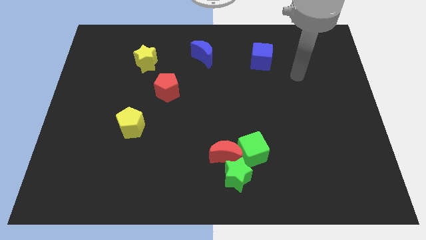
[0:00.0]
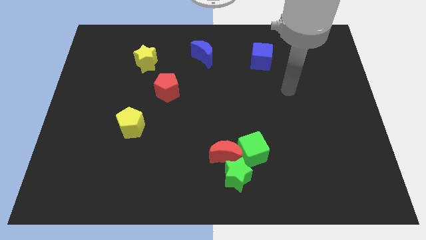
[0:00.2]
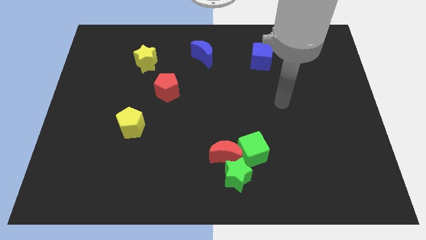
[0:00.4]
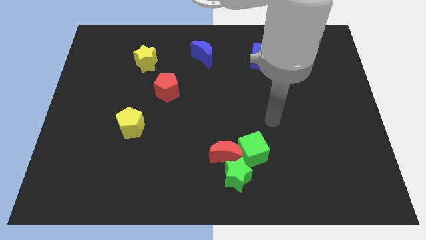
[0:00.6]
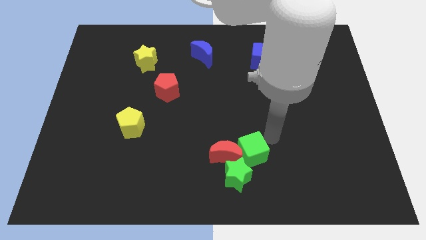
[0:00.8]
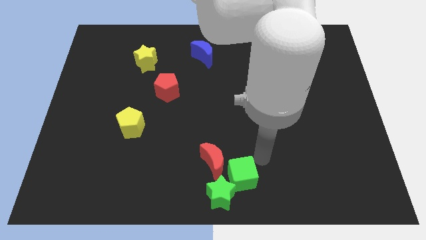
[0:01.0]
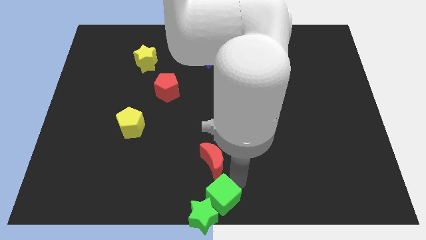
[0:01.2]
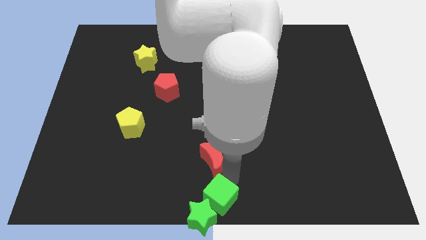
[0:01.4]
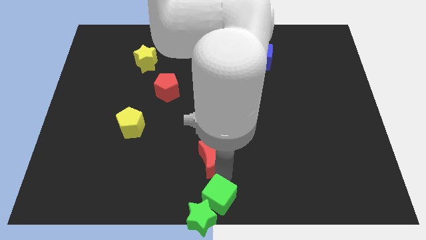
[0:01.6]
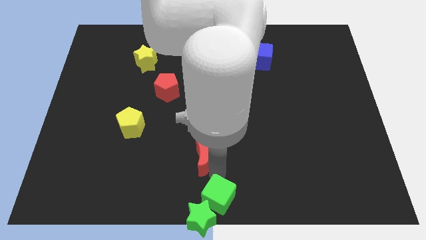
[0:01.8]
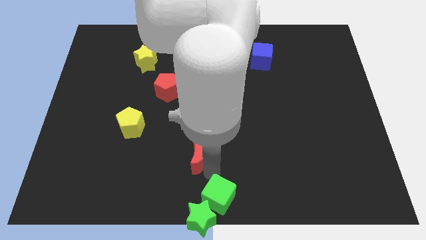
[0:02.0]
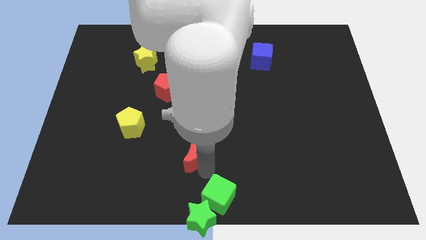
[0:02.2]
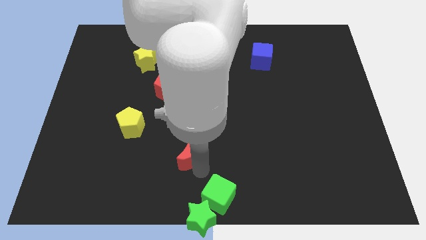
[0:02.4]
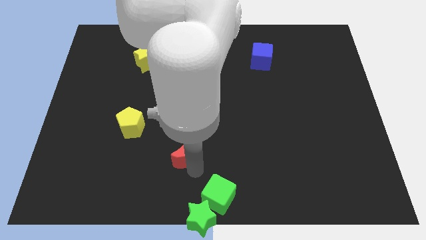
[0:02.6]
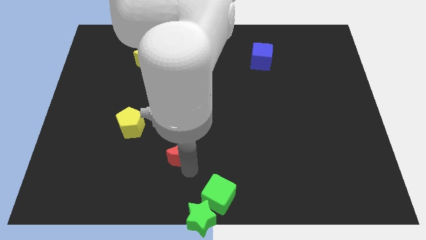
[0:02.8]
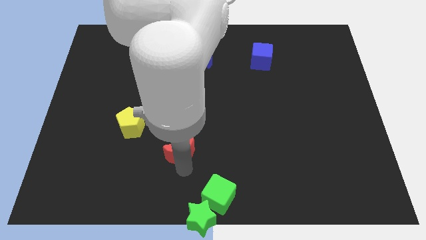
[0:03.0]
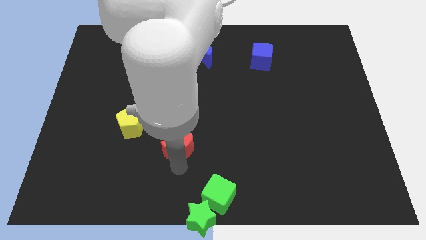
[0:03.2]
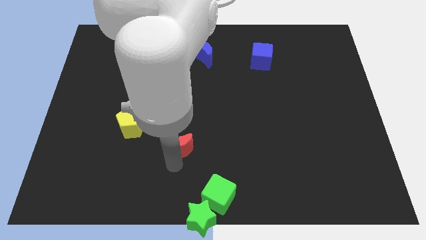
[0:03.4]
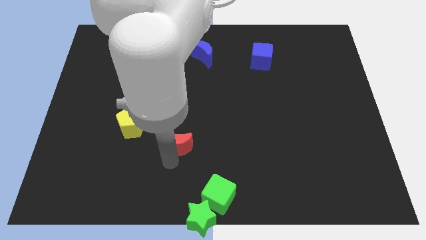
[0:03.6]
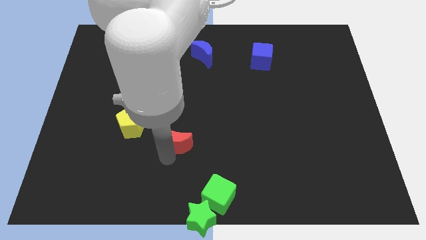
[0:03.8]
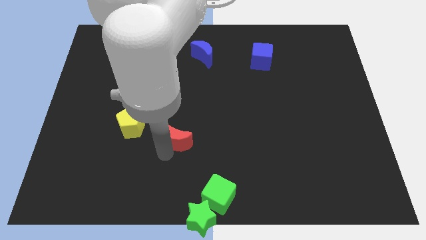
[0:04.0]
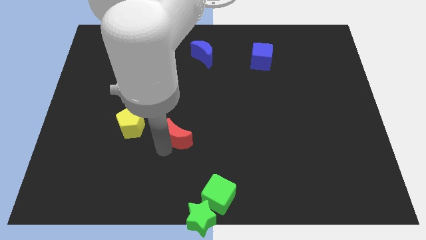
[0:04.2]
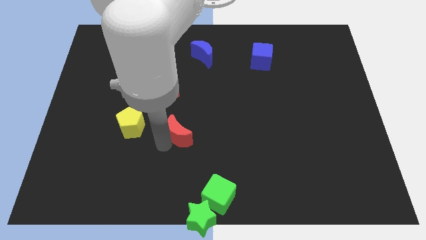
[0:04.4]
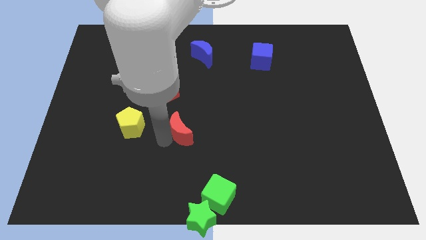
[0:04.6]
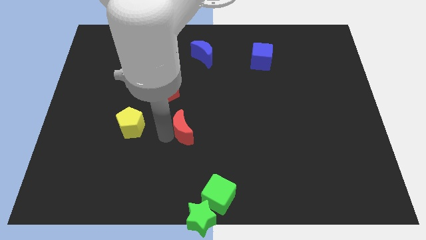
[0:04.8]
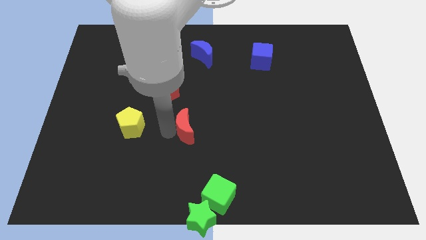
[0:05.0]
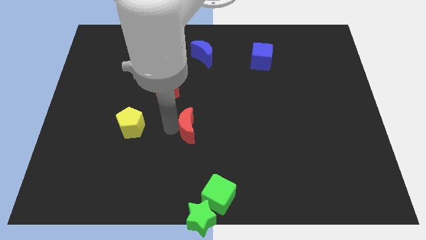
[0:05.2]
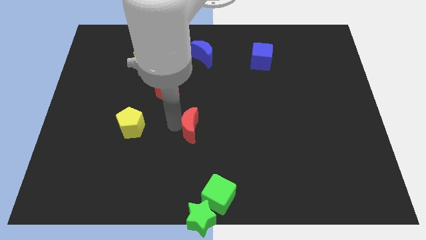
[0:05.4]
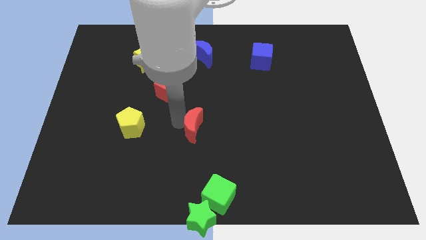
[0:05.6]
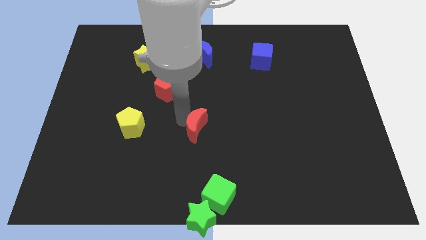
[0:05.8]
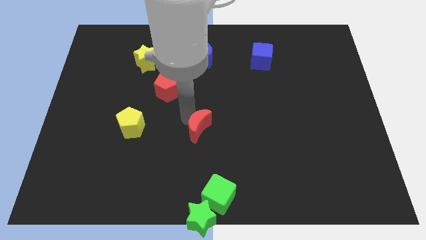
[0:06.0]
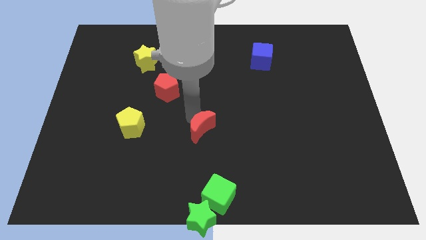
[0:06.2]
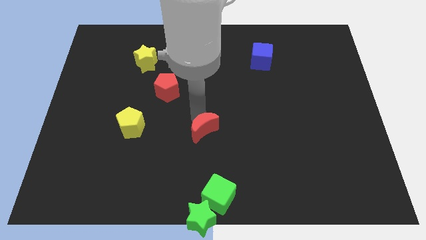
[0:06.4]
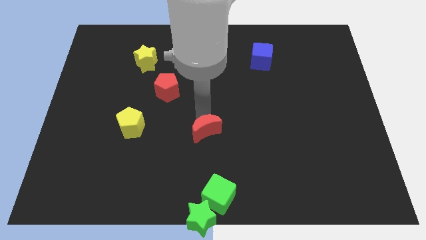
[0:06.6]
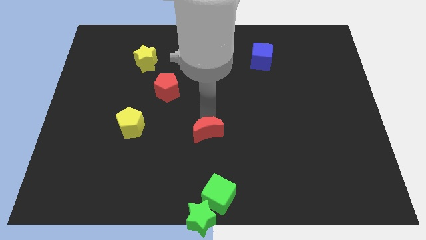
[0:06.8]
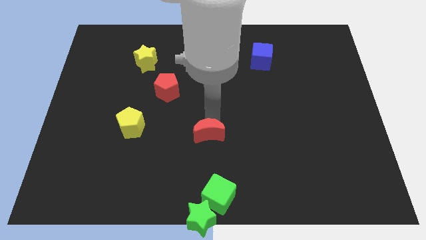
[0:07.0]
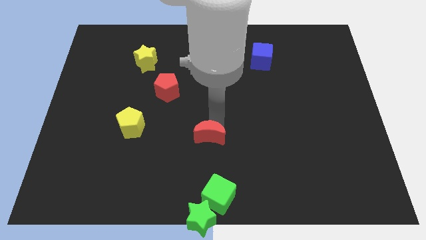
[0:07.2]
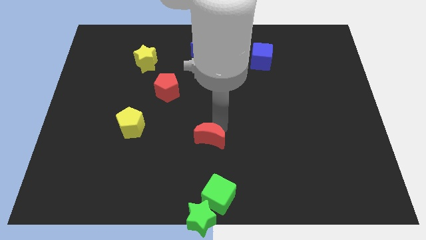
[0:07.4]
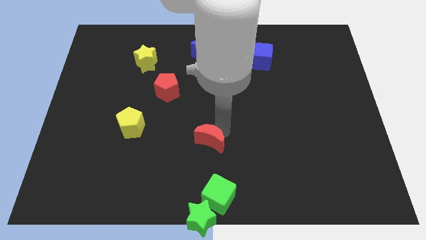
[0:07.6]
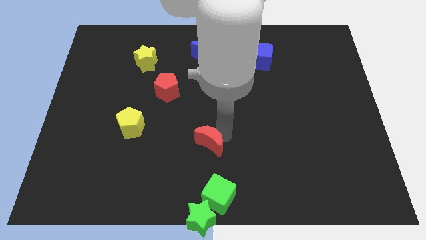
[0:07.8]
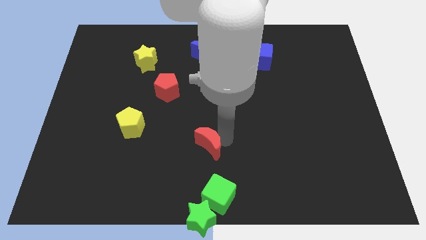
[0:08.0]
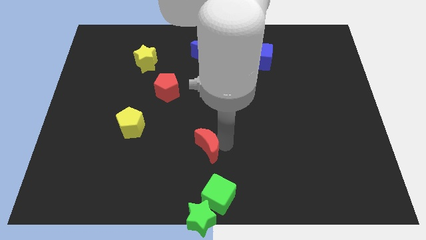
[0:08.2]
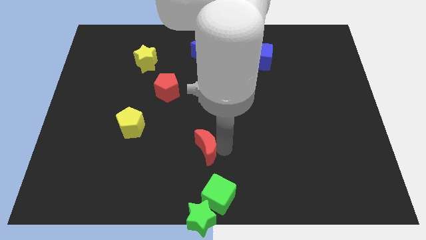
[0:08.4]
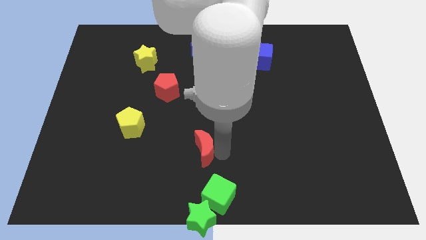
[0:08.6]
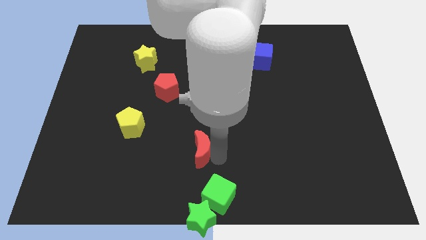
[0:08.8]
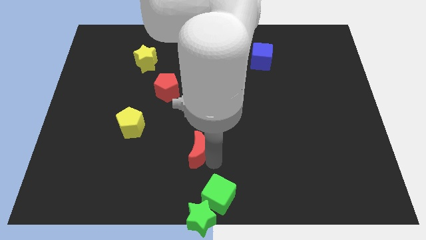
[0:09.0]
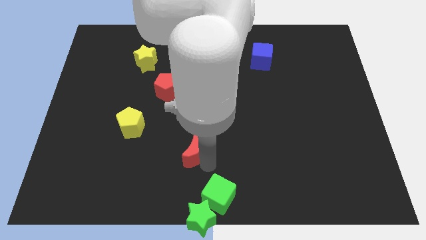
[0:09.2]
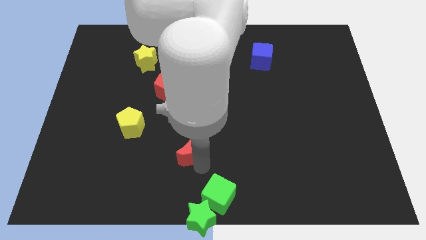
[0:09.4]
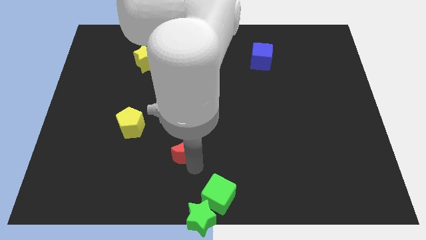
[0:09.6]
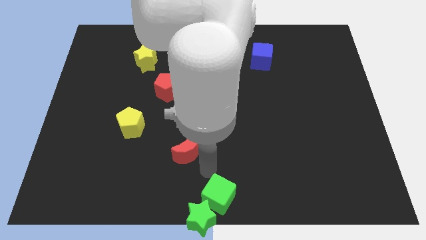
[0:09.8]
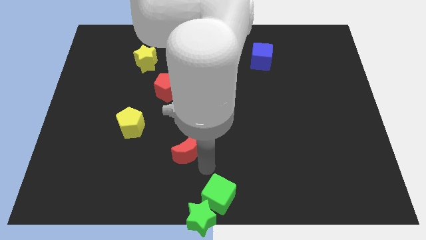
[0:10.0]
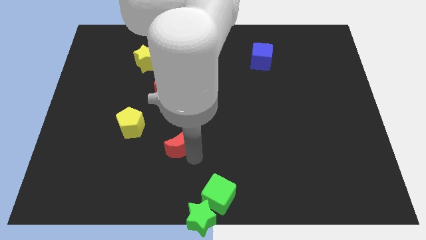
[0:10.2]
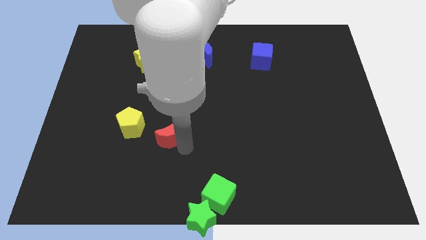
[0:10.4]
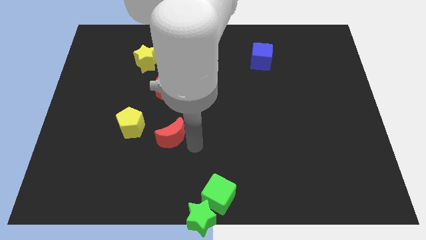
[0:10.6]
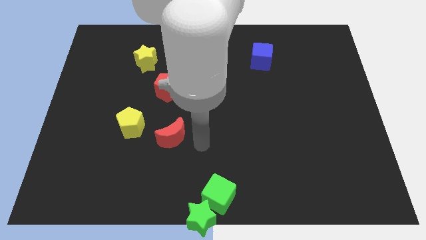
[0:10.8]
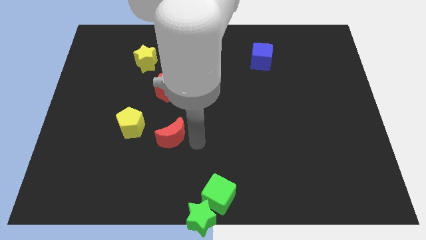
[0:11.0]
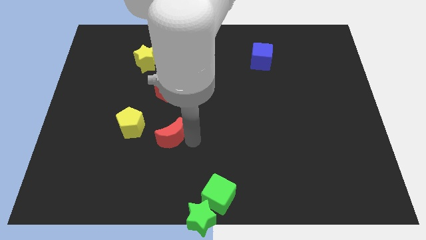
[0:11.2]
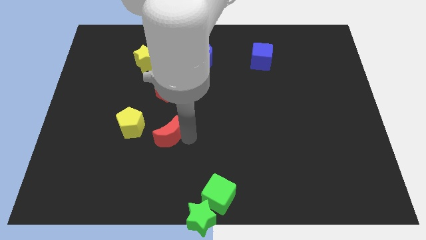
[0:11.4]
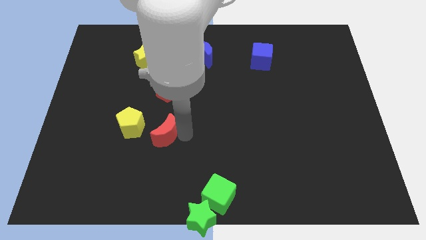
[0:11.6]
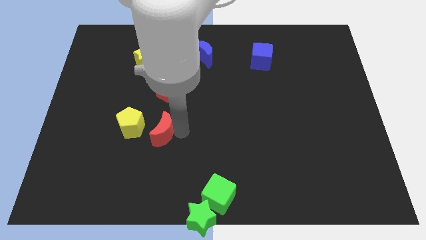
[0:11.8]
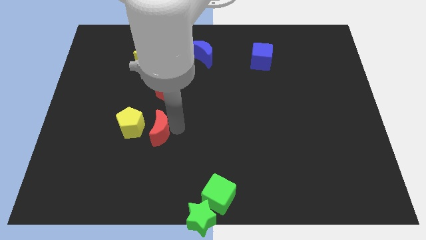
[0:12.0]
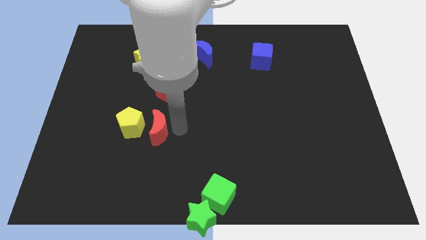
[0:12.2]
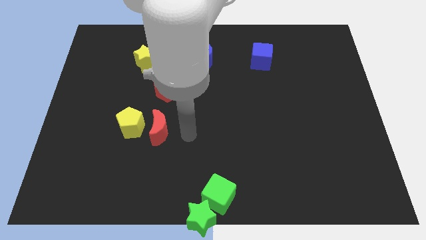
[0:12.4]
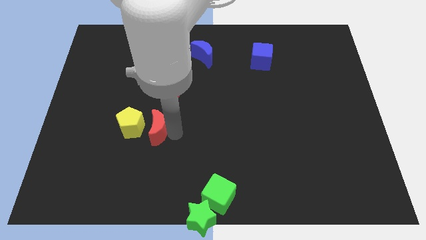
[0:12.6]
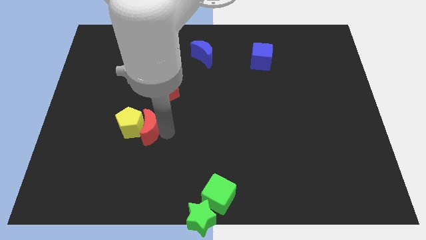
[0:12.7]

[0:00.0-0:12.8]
push the red moon next to the yellow pentagon

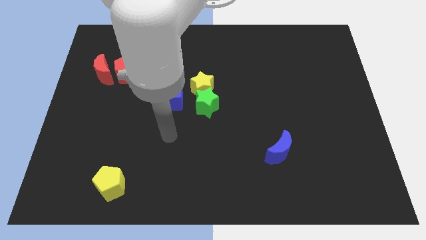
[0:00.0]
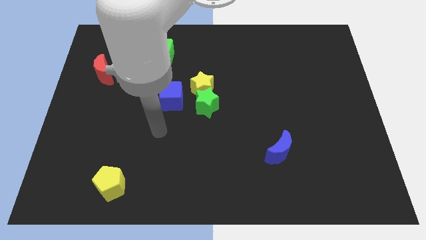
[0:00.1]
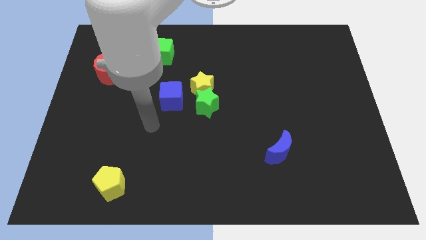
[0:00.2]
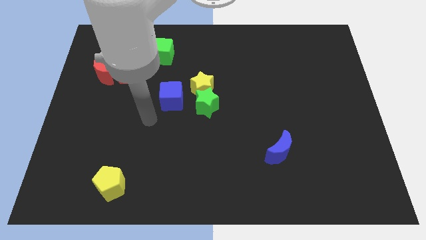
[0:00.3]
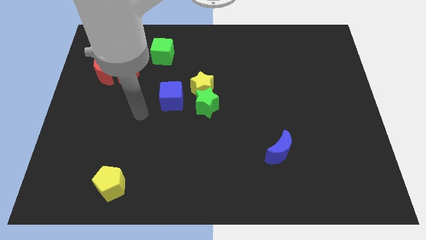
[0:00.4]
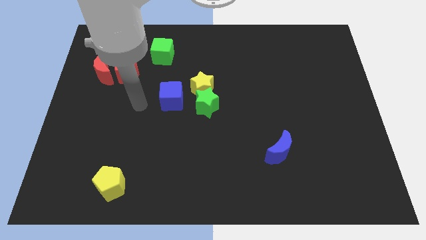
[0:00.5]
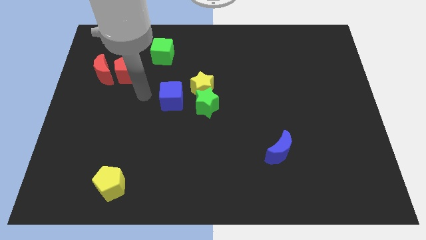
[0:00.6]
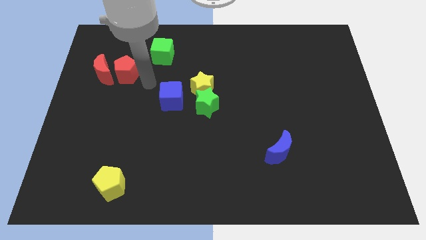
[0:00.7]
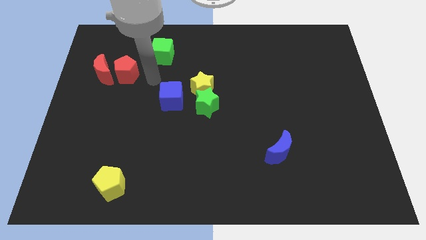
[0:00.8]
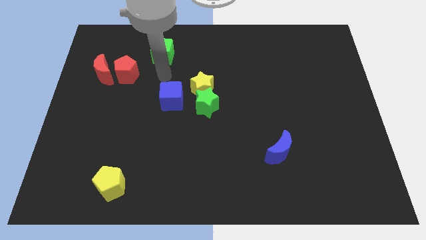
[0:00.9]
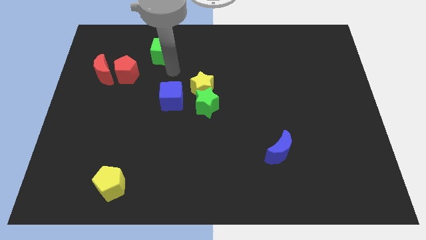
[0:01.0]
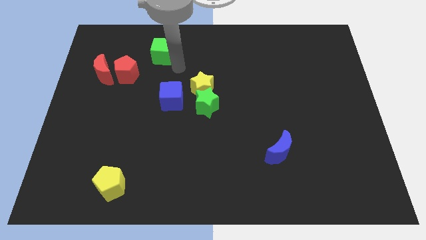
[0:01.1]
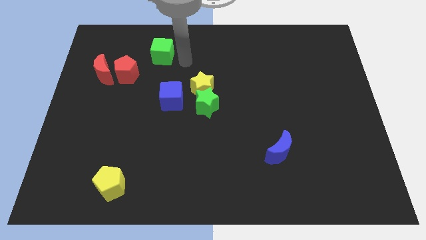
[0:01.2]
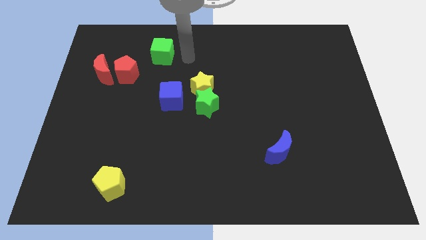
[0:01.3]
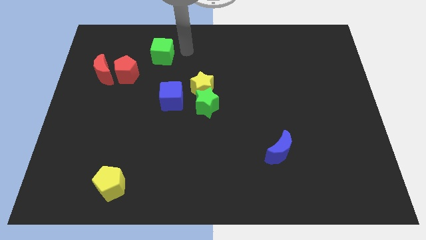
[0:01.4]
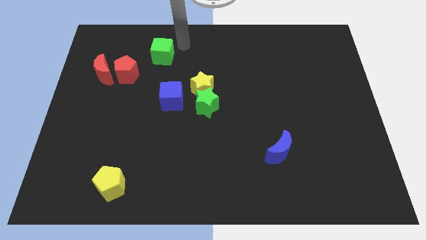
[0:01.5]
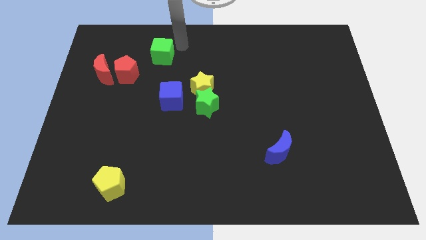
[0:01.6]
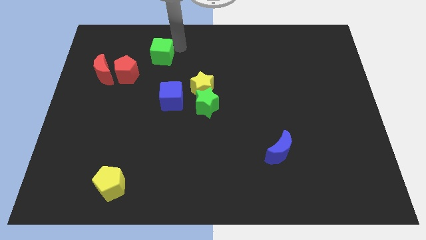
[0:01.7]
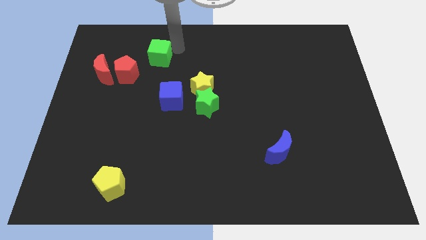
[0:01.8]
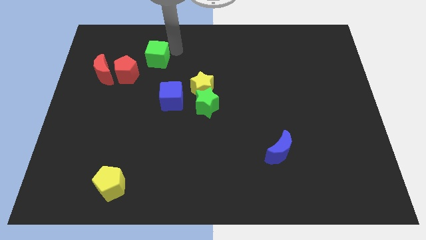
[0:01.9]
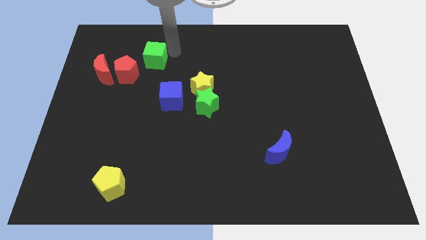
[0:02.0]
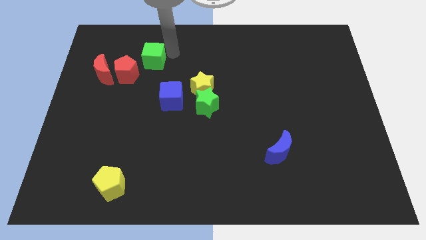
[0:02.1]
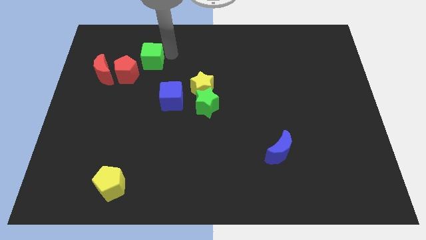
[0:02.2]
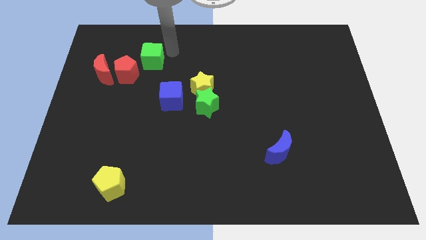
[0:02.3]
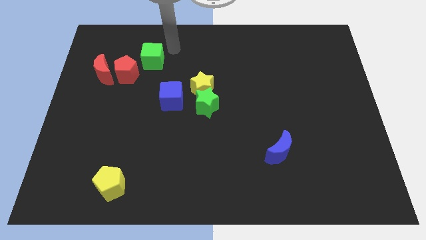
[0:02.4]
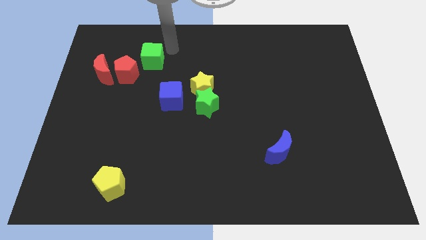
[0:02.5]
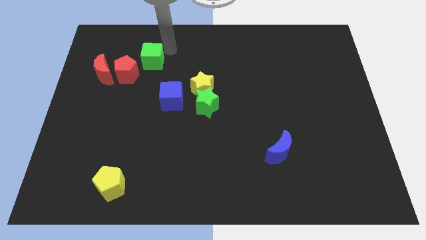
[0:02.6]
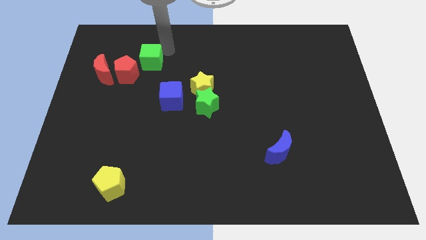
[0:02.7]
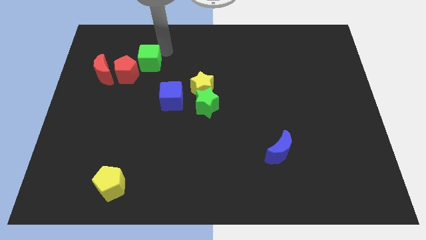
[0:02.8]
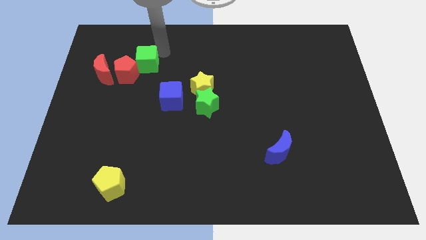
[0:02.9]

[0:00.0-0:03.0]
put the green cube next to the red pentagon
